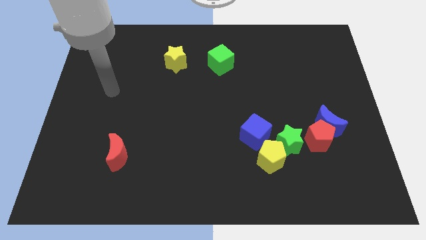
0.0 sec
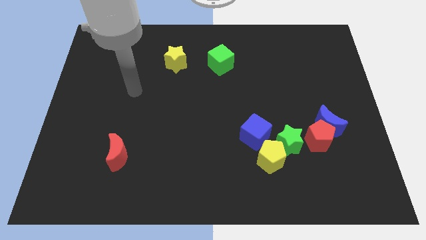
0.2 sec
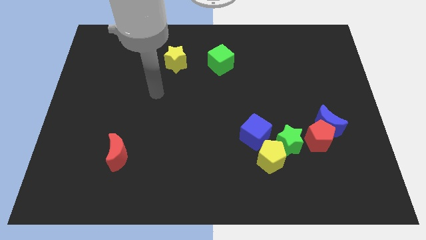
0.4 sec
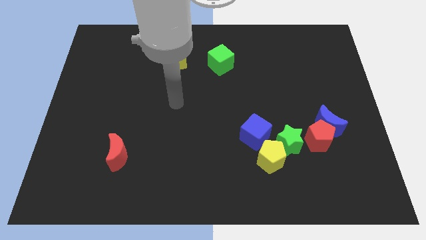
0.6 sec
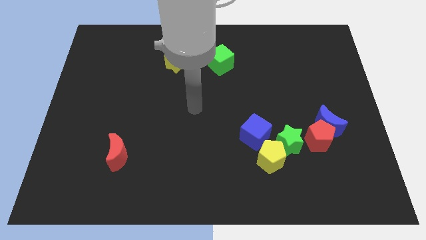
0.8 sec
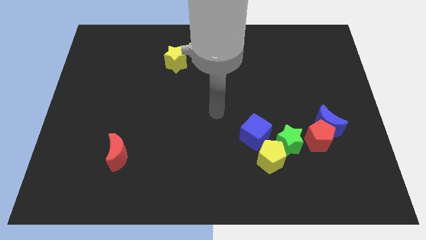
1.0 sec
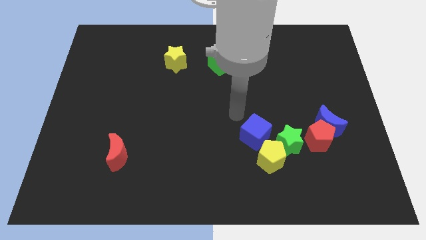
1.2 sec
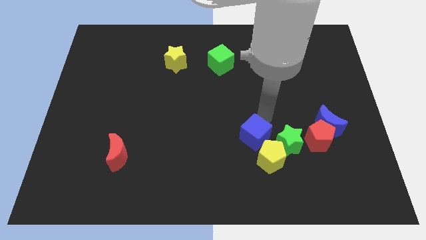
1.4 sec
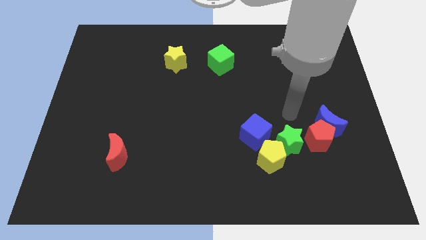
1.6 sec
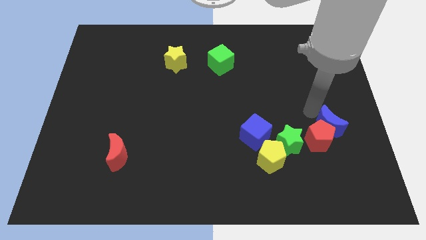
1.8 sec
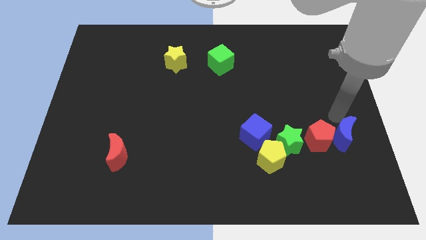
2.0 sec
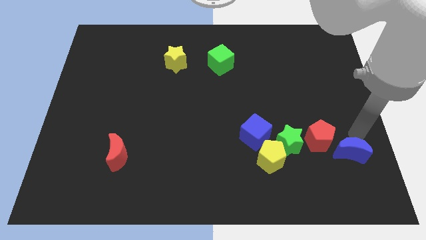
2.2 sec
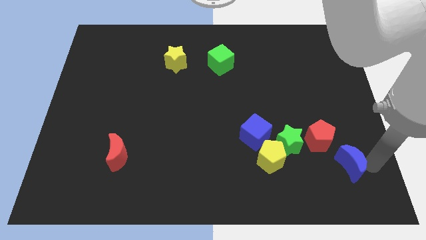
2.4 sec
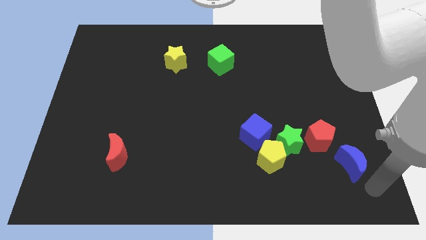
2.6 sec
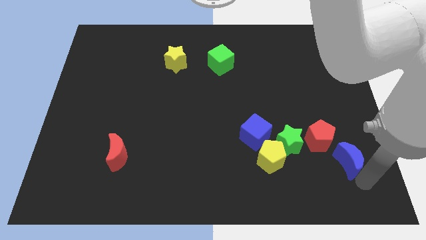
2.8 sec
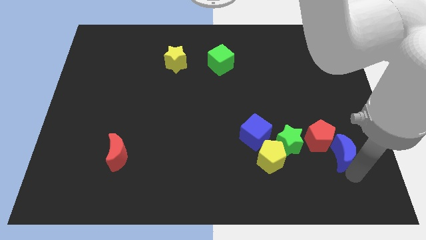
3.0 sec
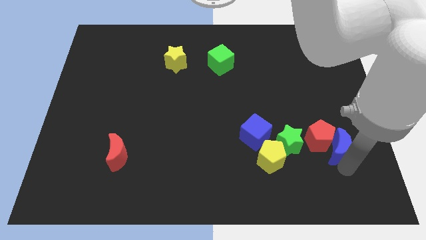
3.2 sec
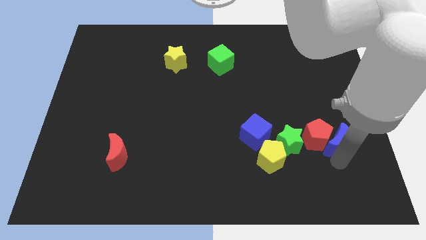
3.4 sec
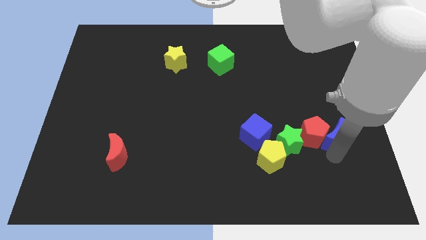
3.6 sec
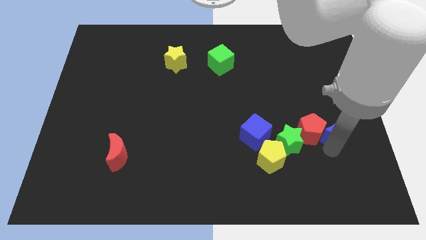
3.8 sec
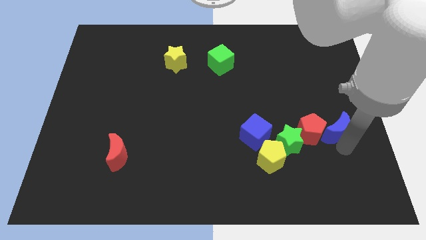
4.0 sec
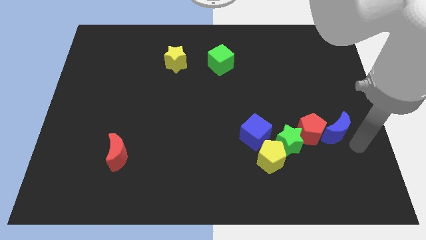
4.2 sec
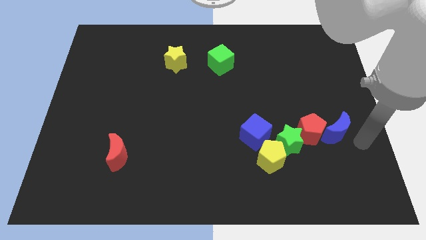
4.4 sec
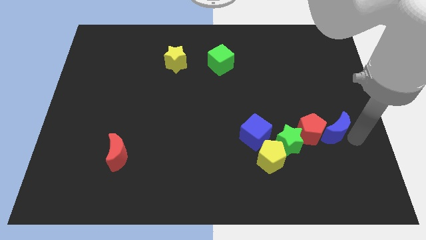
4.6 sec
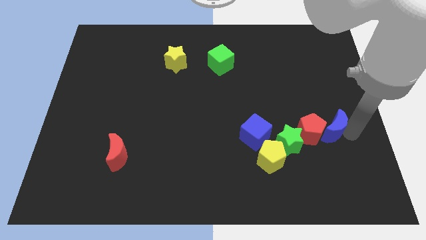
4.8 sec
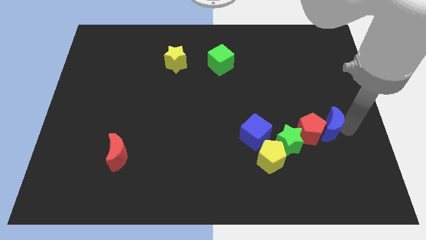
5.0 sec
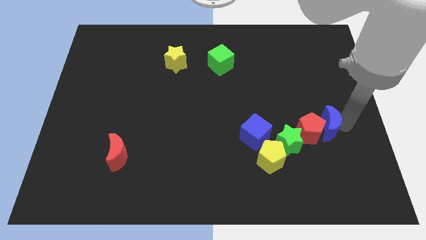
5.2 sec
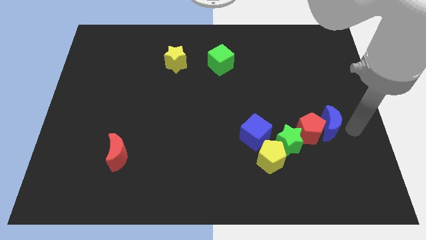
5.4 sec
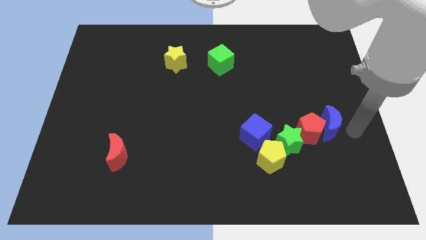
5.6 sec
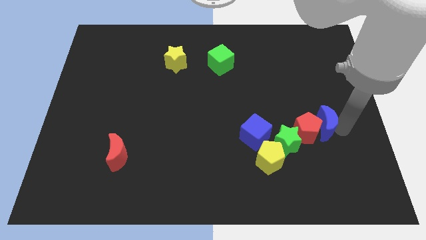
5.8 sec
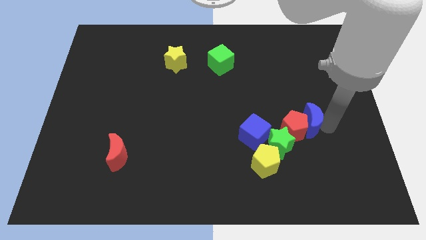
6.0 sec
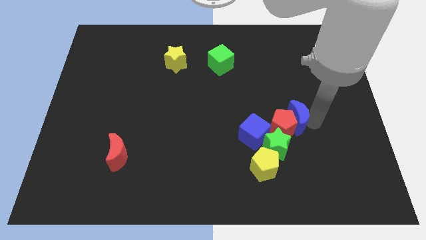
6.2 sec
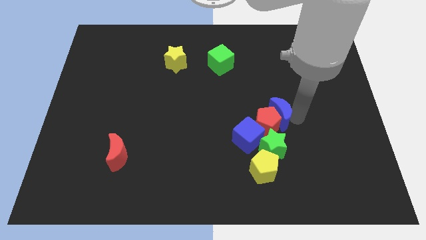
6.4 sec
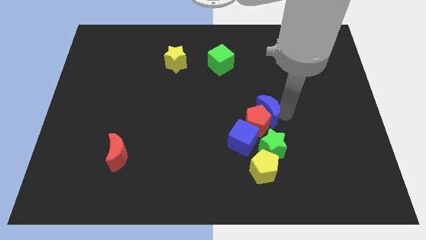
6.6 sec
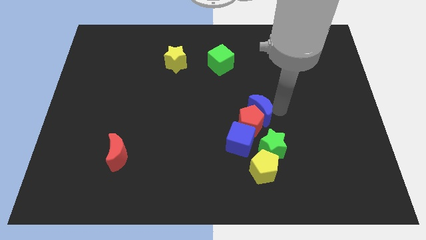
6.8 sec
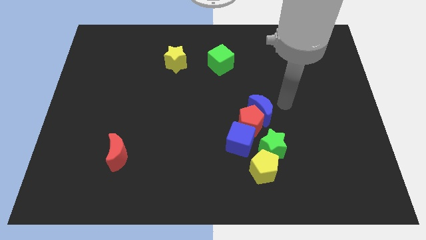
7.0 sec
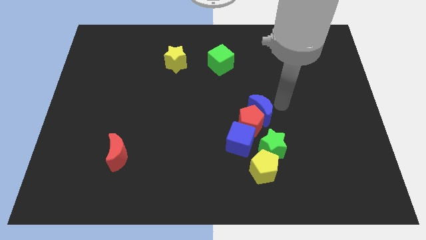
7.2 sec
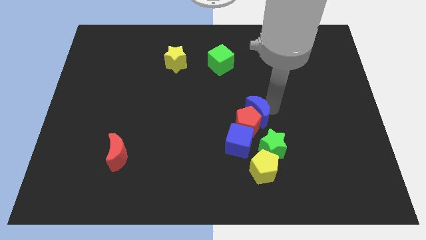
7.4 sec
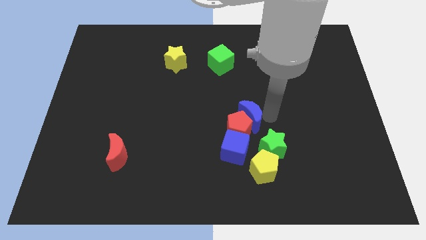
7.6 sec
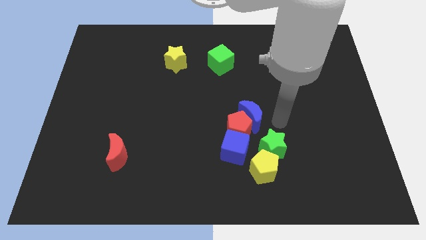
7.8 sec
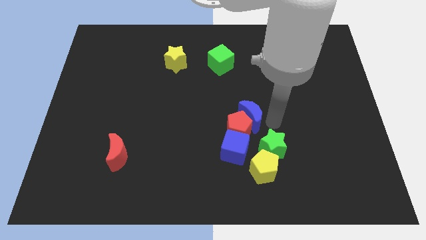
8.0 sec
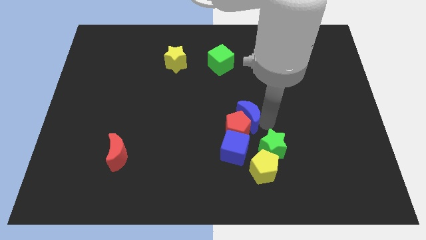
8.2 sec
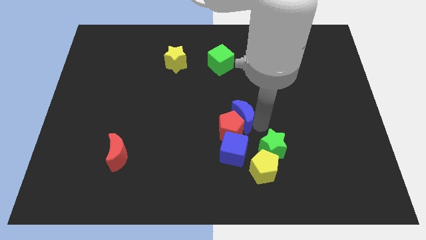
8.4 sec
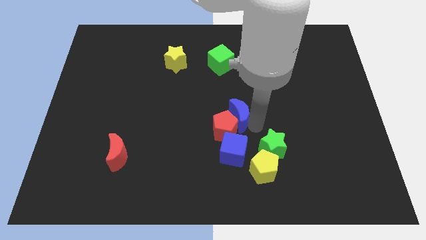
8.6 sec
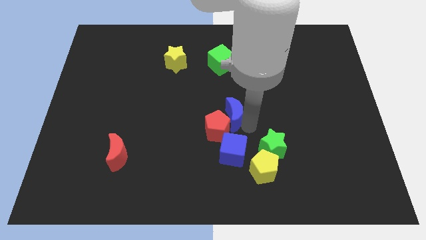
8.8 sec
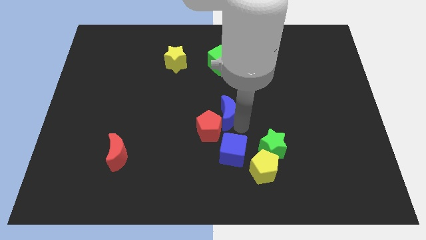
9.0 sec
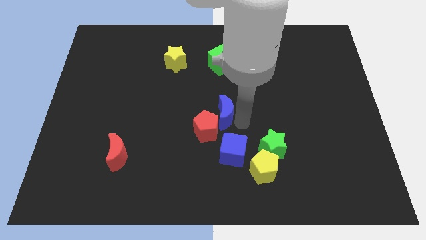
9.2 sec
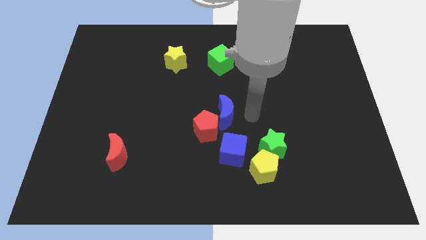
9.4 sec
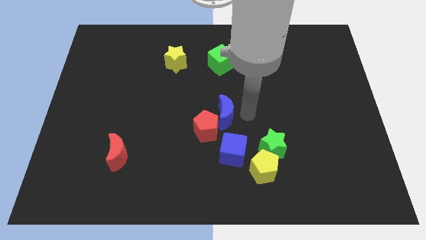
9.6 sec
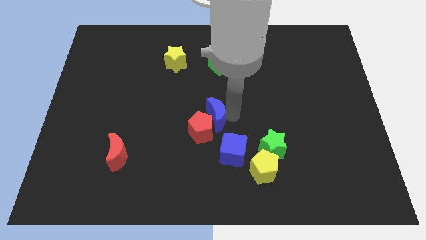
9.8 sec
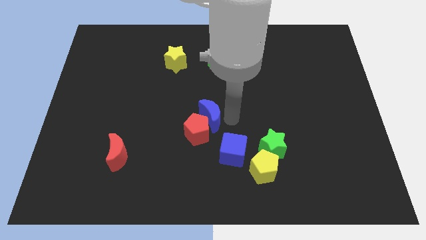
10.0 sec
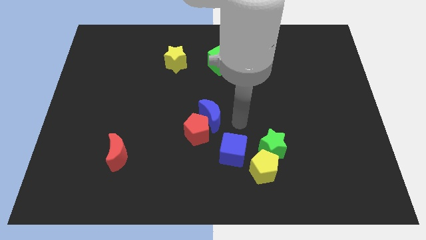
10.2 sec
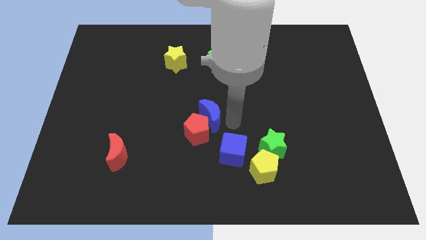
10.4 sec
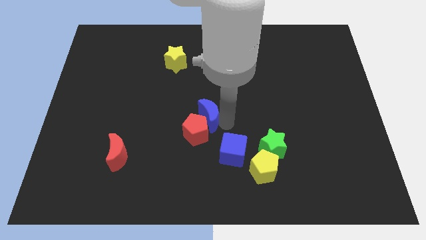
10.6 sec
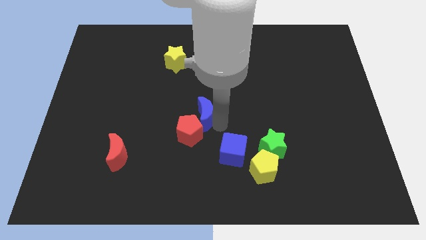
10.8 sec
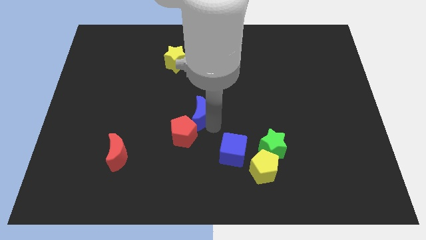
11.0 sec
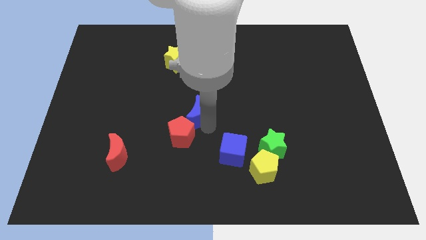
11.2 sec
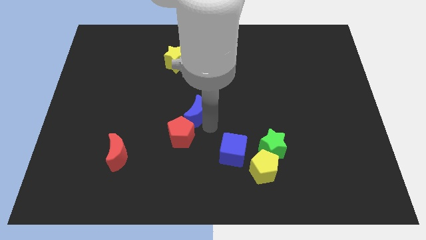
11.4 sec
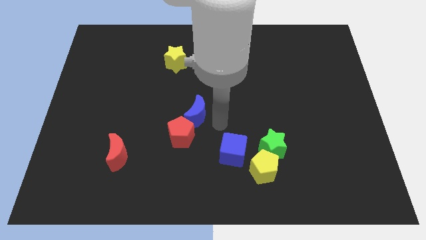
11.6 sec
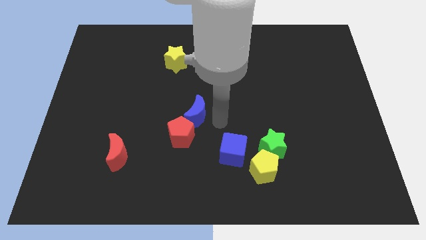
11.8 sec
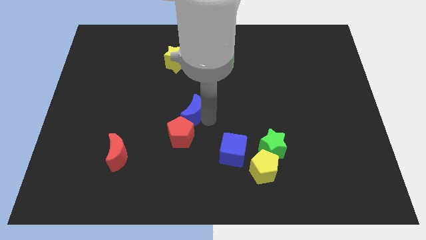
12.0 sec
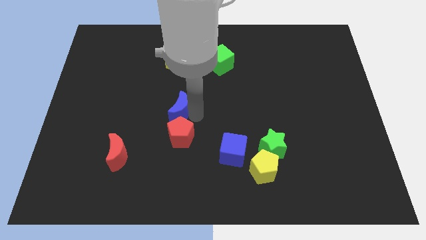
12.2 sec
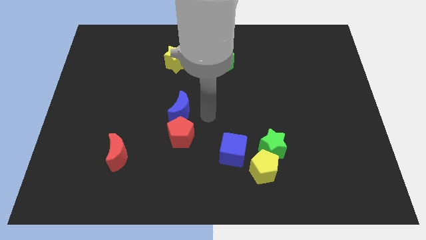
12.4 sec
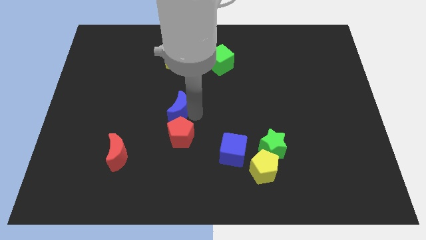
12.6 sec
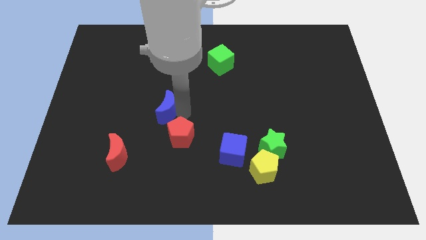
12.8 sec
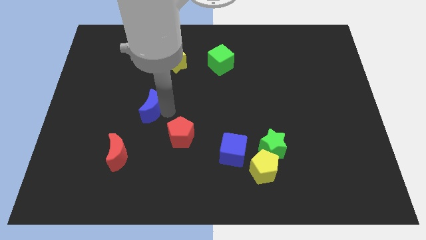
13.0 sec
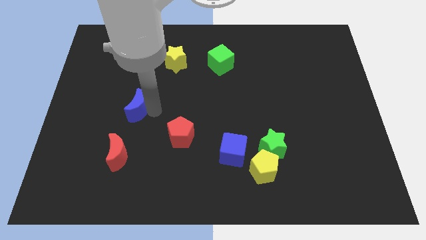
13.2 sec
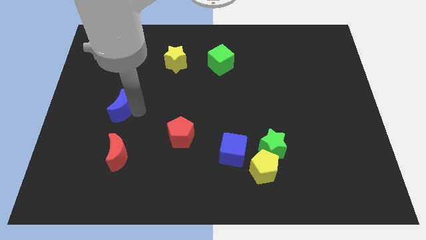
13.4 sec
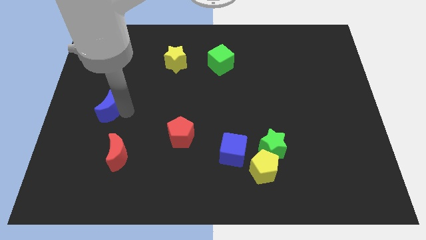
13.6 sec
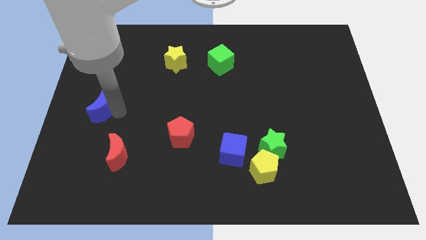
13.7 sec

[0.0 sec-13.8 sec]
slide the blue moon to the left side of the board
